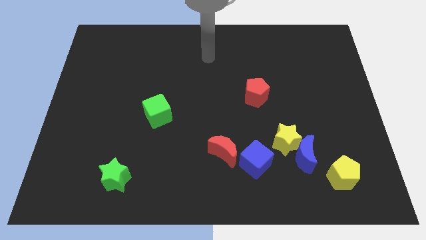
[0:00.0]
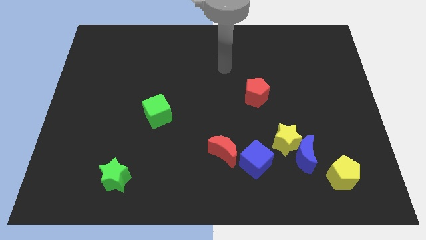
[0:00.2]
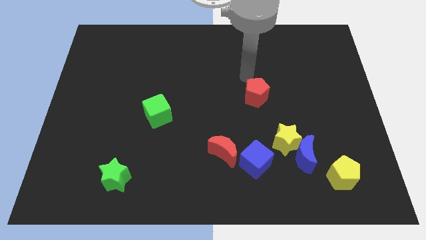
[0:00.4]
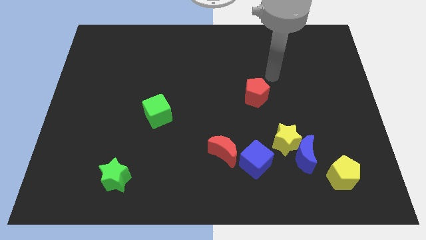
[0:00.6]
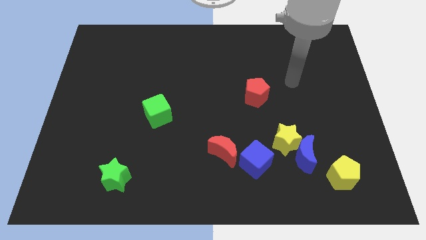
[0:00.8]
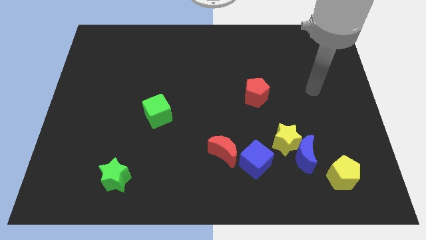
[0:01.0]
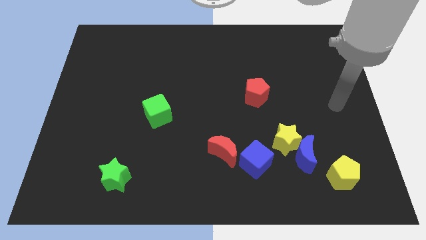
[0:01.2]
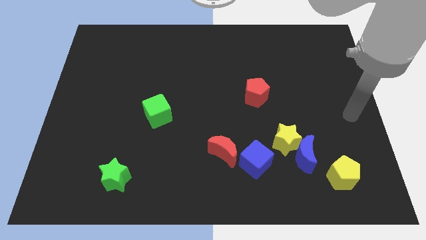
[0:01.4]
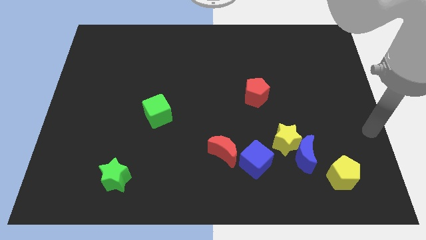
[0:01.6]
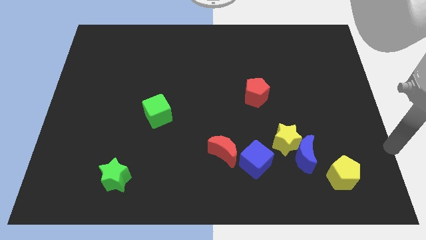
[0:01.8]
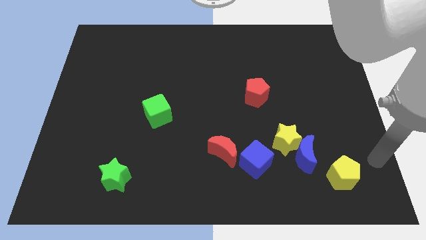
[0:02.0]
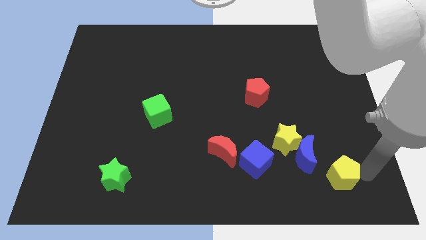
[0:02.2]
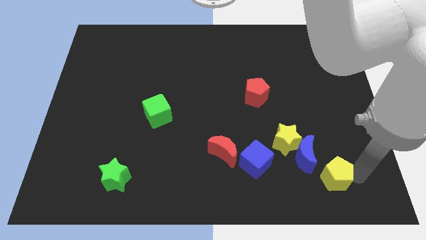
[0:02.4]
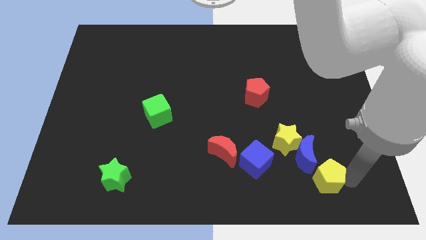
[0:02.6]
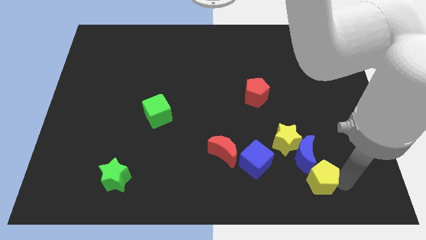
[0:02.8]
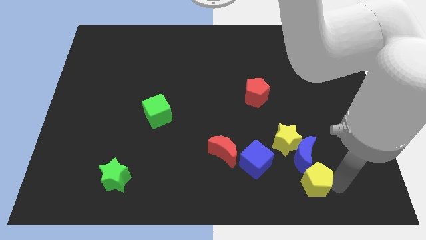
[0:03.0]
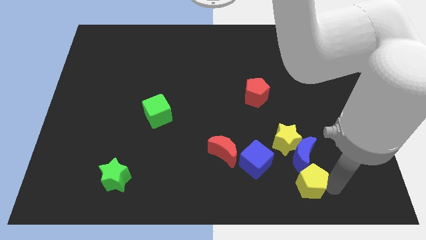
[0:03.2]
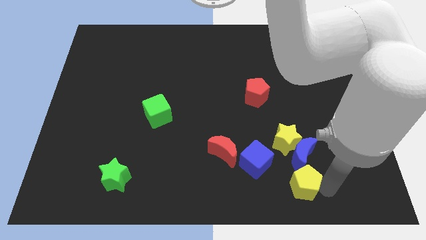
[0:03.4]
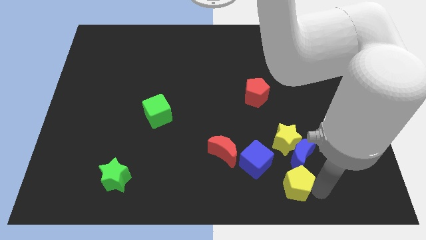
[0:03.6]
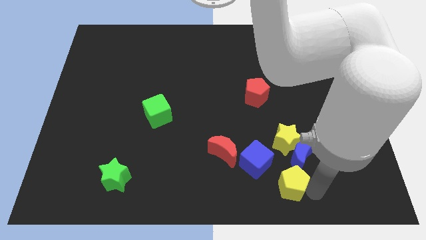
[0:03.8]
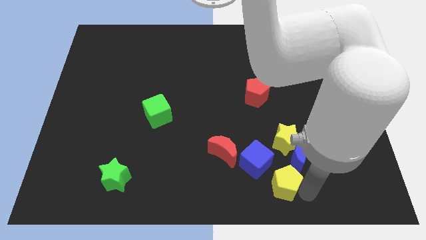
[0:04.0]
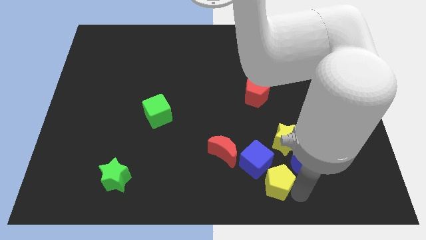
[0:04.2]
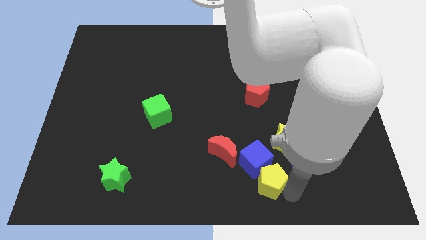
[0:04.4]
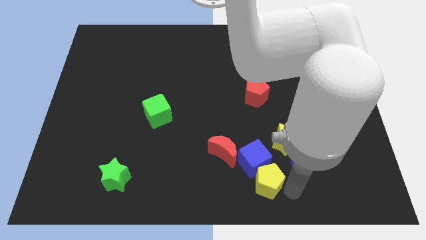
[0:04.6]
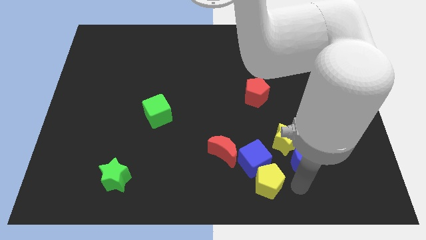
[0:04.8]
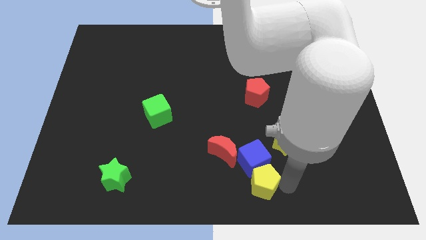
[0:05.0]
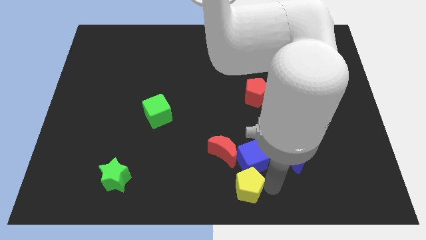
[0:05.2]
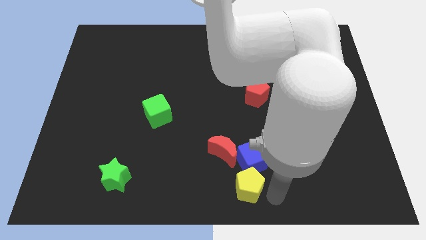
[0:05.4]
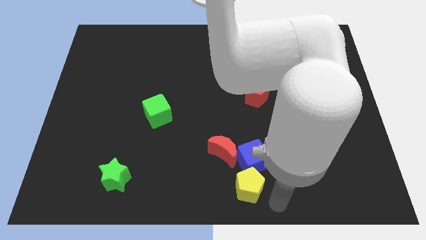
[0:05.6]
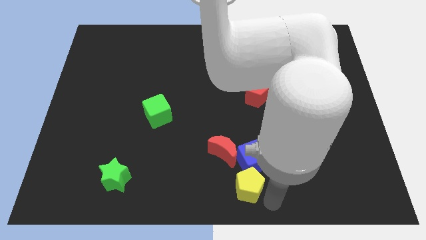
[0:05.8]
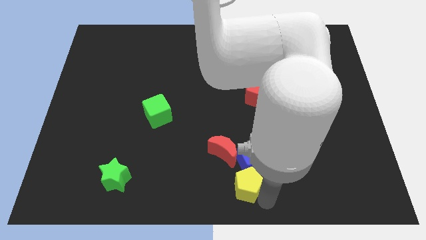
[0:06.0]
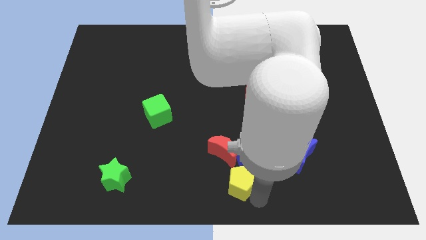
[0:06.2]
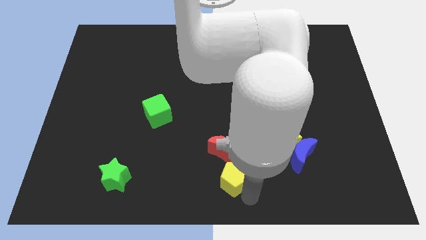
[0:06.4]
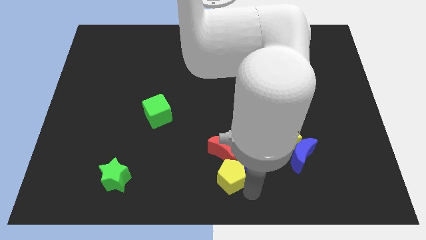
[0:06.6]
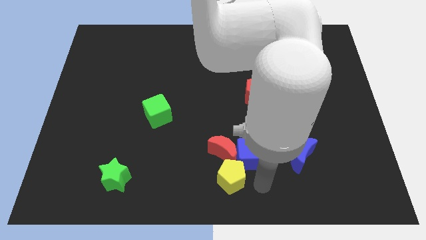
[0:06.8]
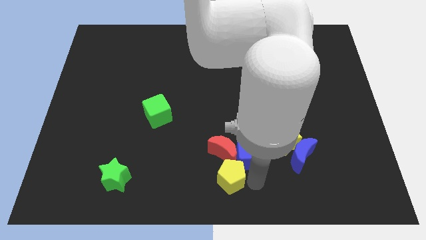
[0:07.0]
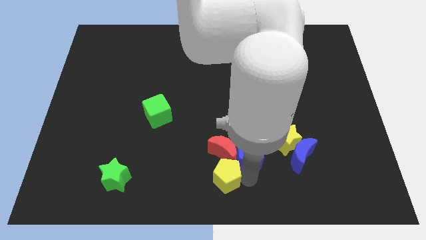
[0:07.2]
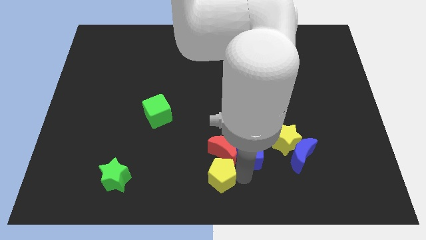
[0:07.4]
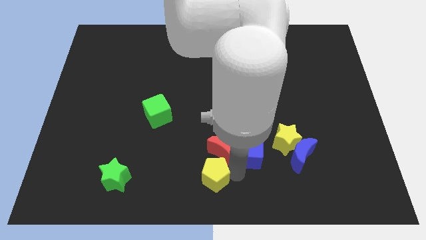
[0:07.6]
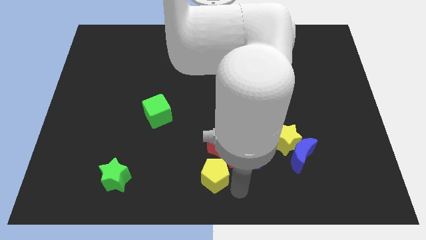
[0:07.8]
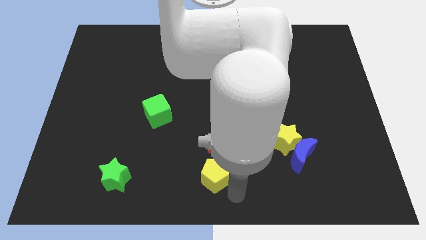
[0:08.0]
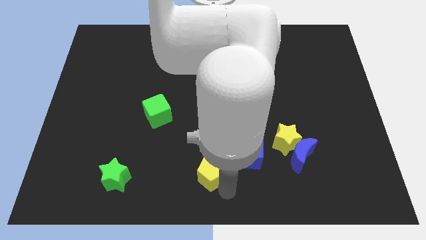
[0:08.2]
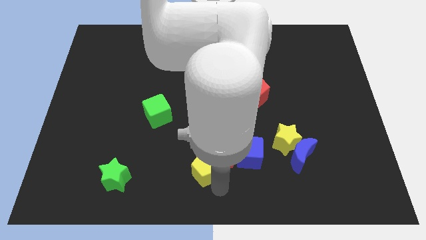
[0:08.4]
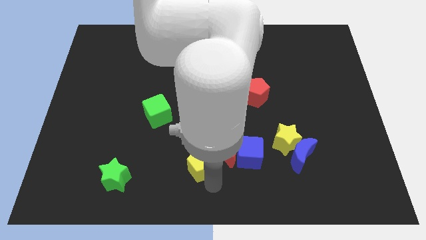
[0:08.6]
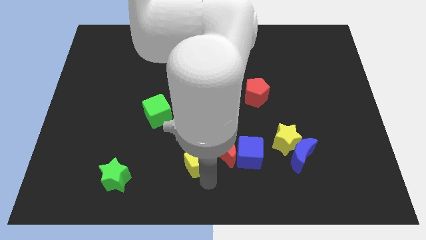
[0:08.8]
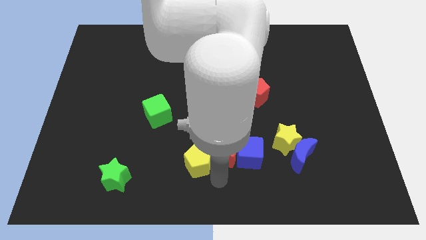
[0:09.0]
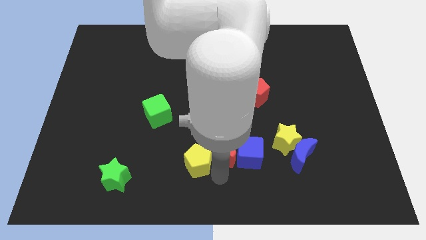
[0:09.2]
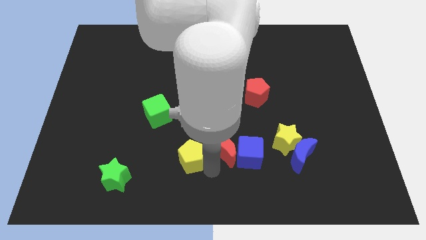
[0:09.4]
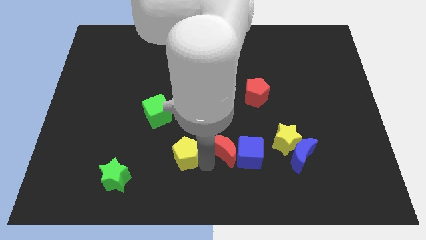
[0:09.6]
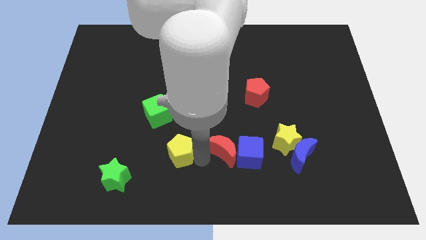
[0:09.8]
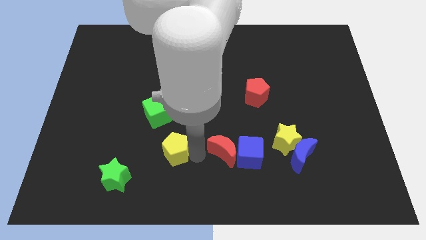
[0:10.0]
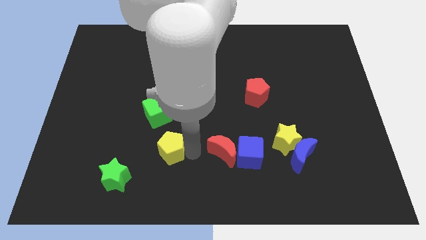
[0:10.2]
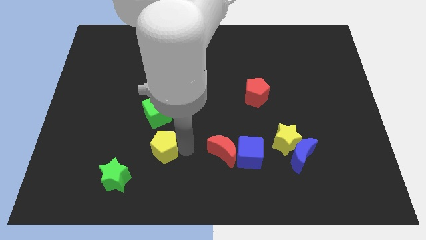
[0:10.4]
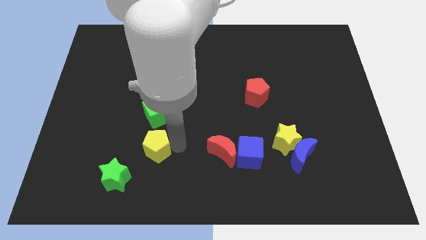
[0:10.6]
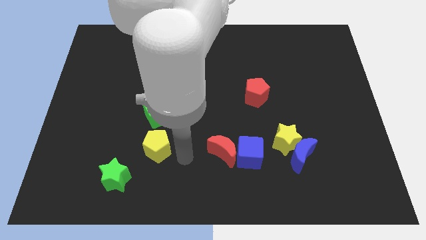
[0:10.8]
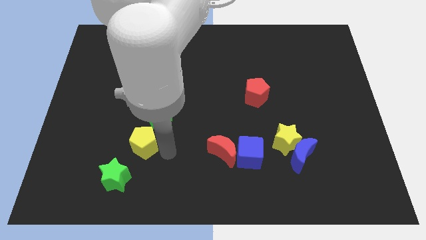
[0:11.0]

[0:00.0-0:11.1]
push the yellow pentagon above the green star

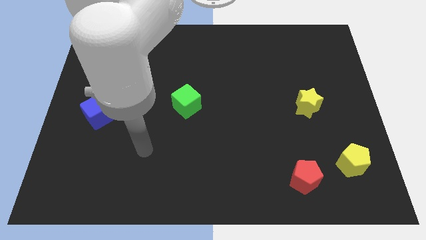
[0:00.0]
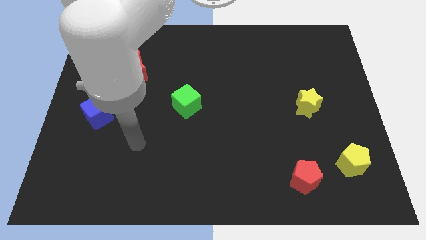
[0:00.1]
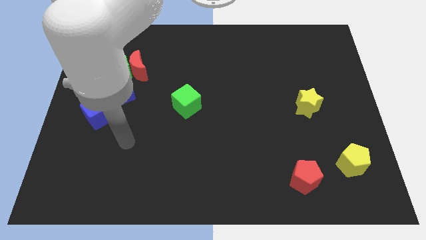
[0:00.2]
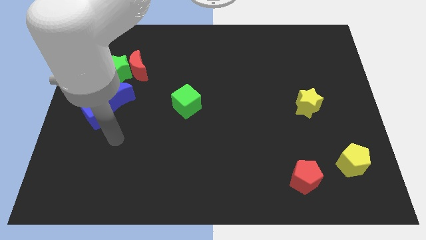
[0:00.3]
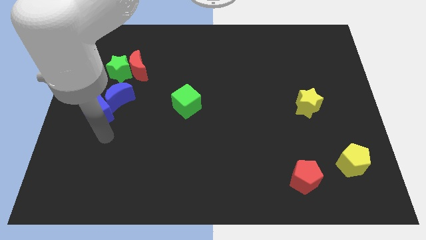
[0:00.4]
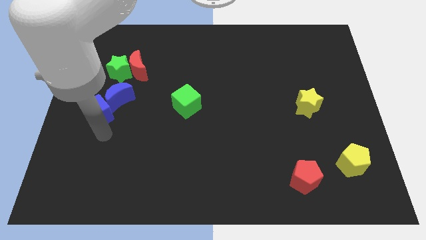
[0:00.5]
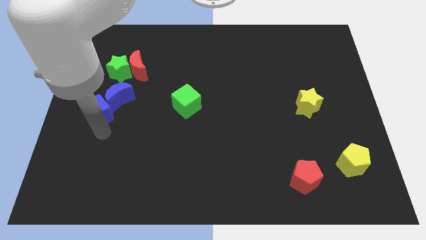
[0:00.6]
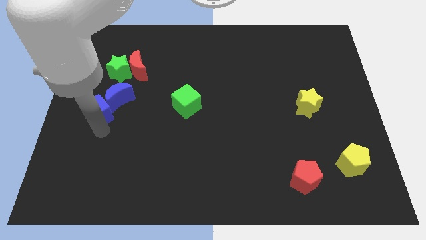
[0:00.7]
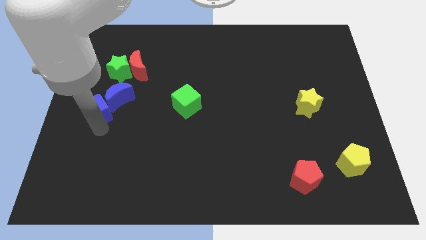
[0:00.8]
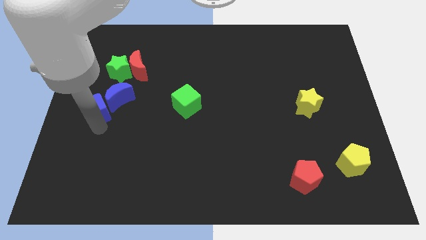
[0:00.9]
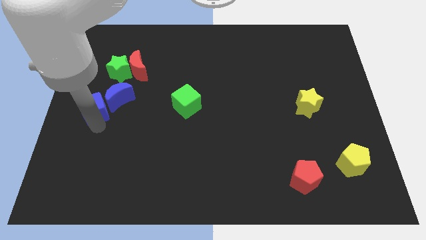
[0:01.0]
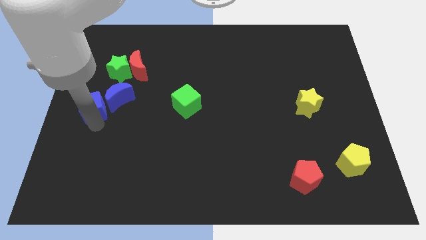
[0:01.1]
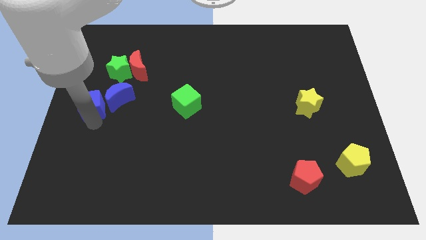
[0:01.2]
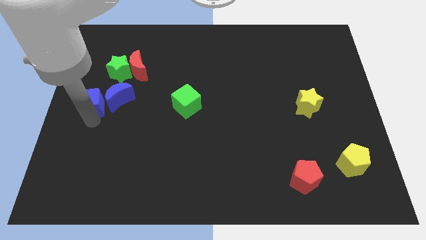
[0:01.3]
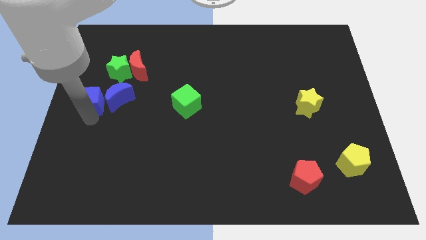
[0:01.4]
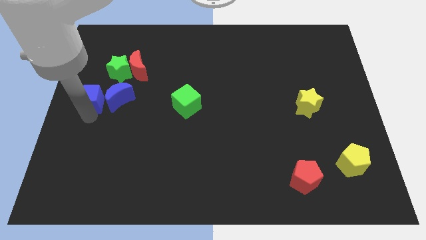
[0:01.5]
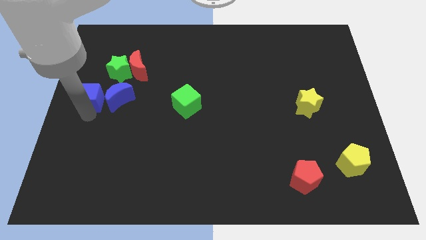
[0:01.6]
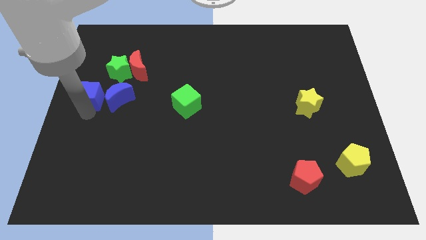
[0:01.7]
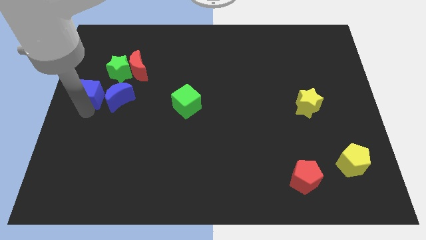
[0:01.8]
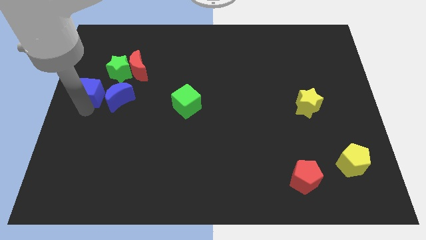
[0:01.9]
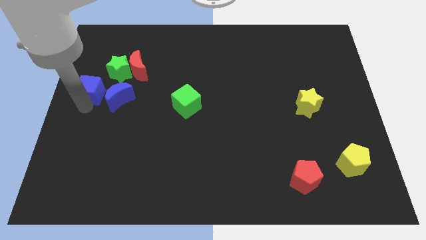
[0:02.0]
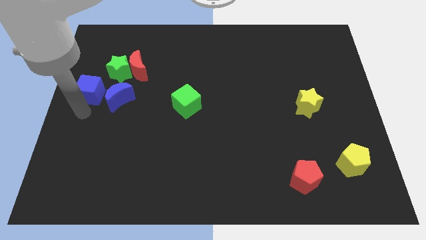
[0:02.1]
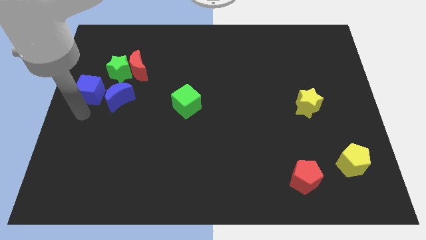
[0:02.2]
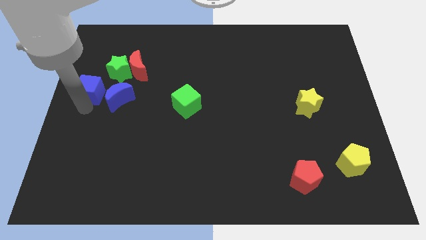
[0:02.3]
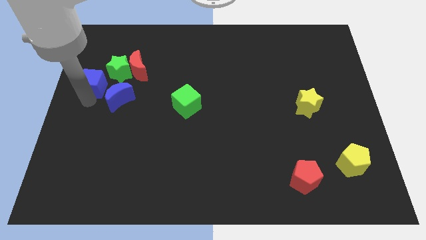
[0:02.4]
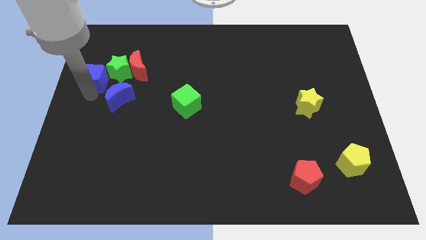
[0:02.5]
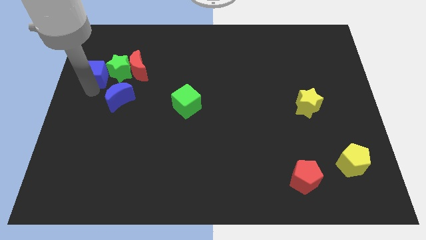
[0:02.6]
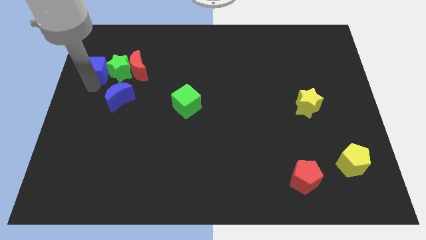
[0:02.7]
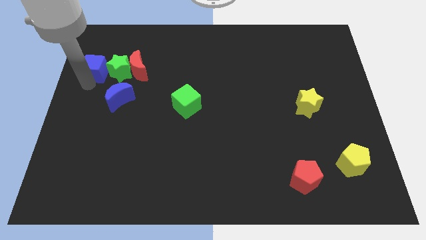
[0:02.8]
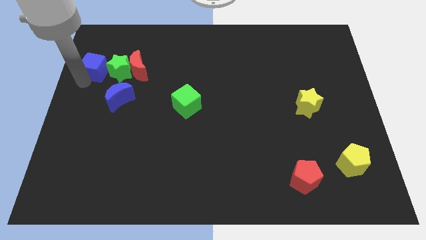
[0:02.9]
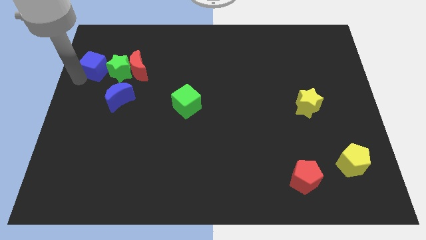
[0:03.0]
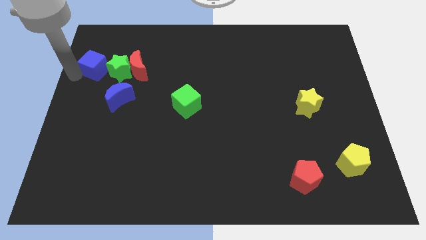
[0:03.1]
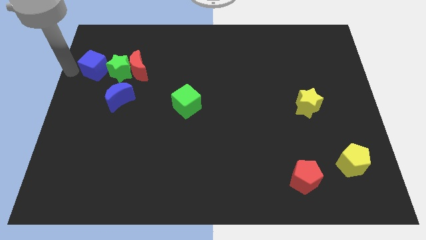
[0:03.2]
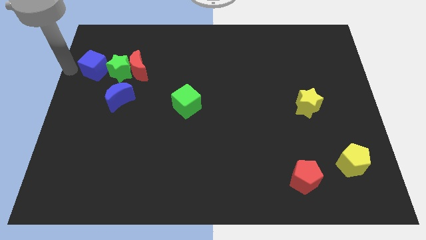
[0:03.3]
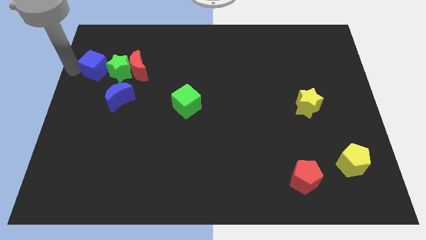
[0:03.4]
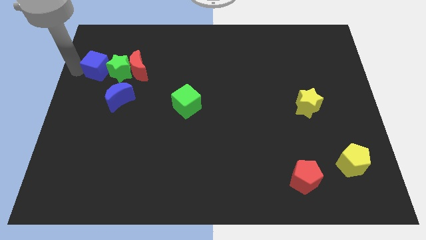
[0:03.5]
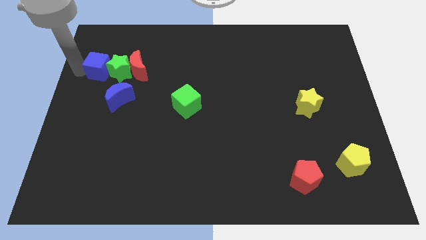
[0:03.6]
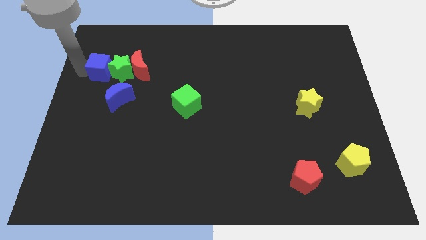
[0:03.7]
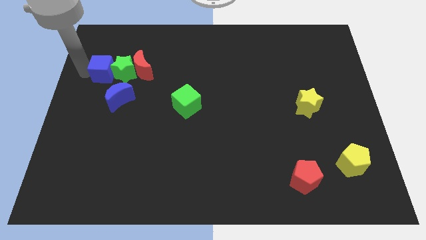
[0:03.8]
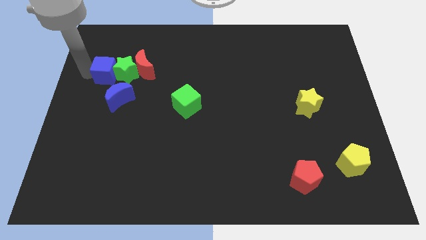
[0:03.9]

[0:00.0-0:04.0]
put the blue cube above the blue moon
